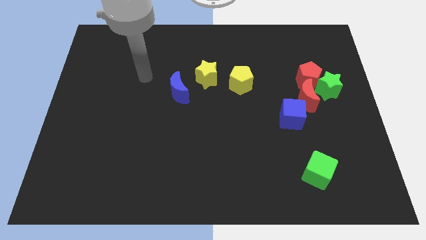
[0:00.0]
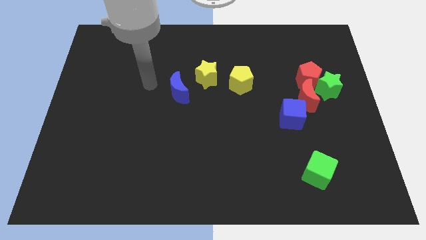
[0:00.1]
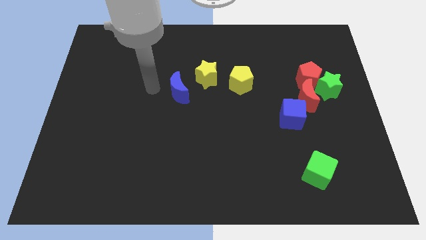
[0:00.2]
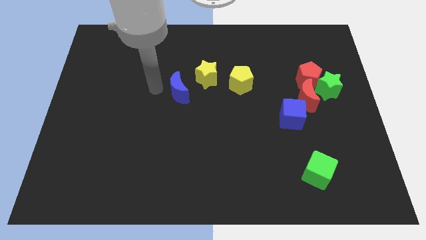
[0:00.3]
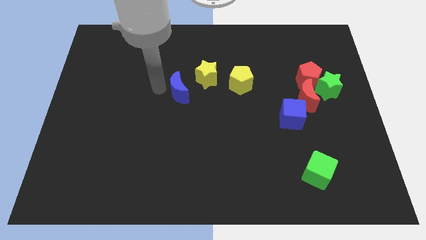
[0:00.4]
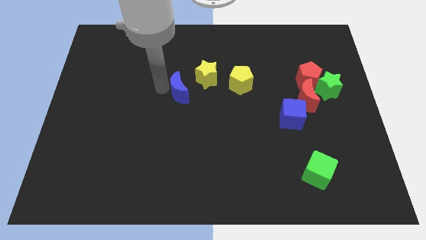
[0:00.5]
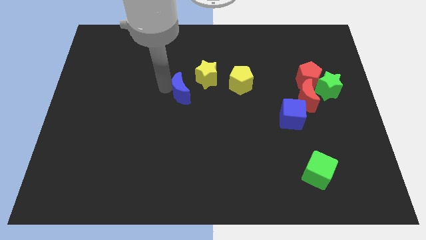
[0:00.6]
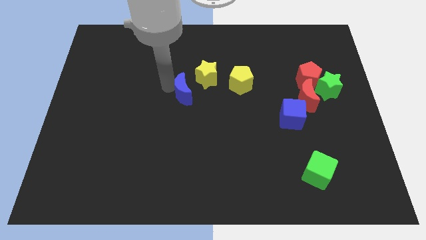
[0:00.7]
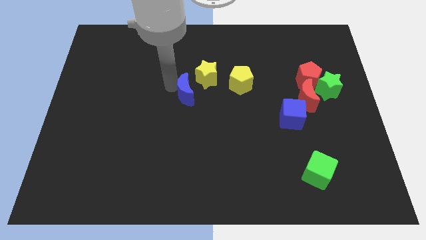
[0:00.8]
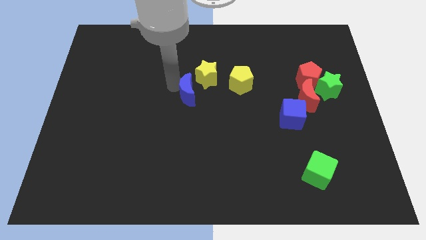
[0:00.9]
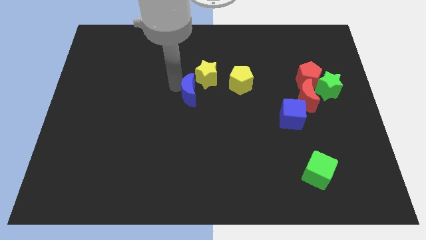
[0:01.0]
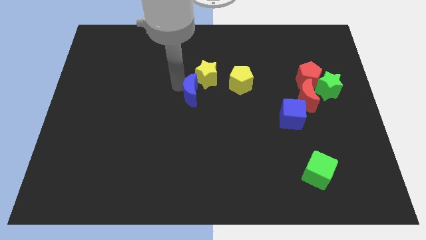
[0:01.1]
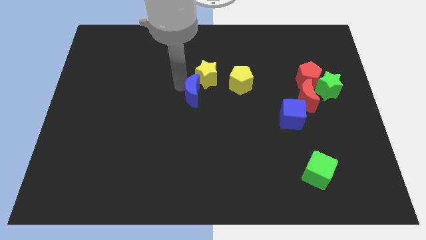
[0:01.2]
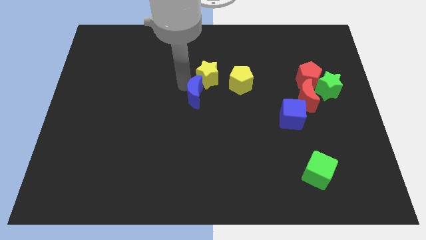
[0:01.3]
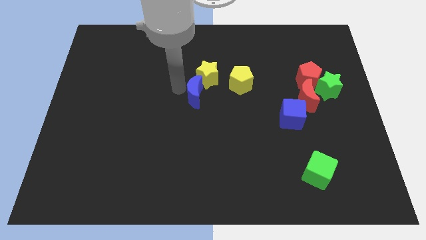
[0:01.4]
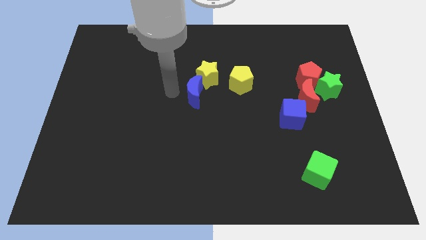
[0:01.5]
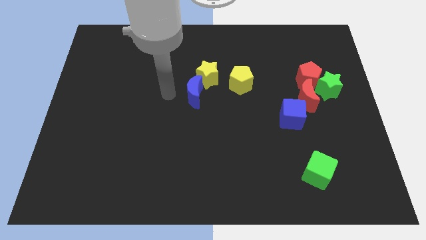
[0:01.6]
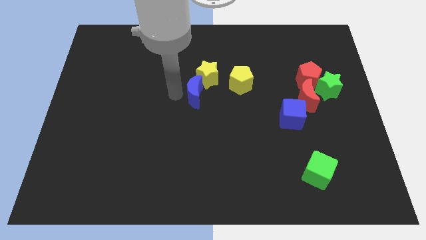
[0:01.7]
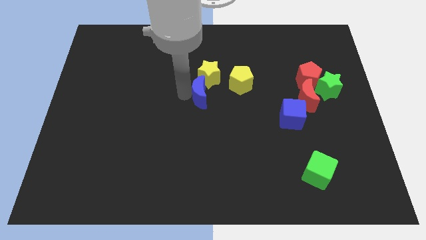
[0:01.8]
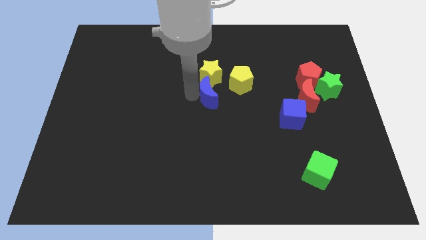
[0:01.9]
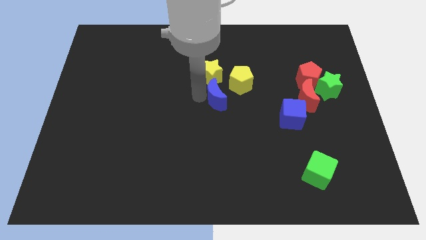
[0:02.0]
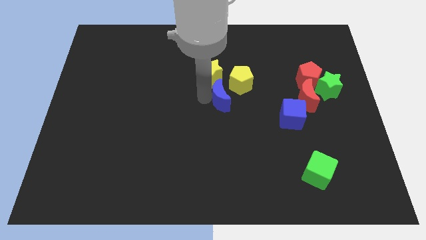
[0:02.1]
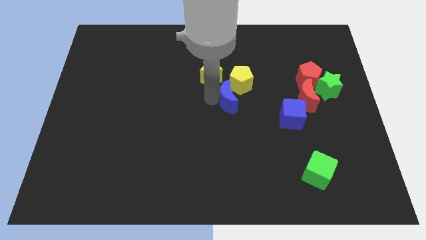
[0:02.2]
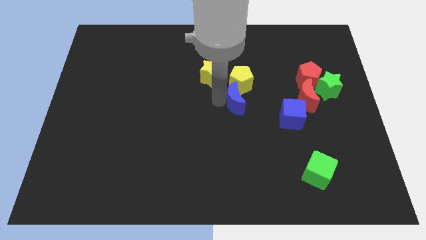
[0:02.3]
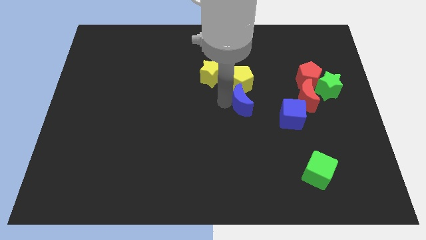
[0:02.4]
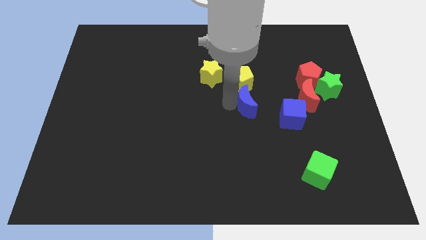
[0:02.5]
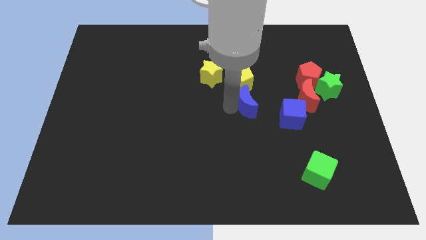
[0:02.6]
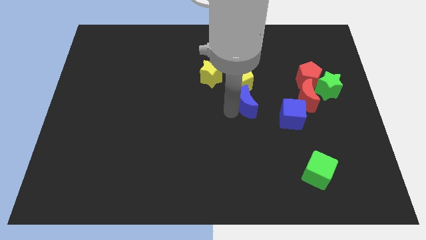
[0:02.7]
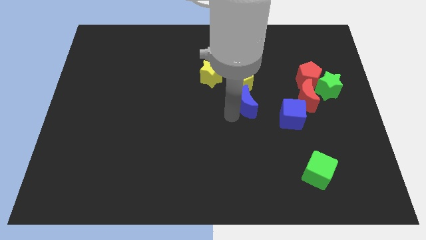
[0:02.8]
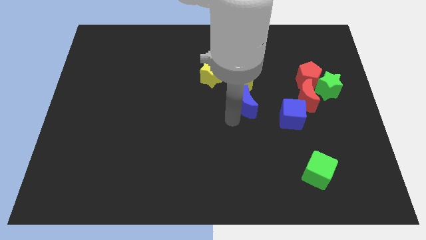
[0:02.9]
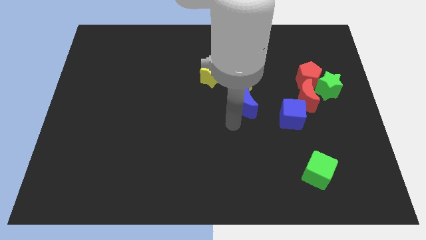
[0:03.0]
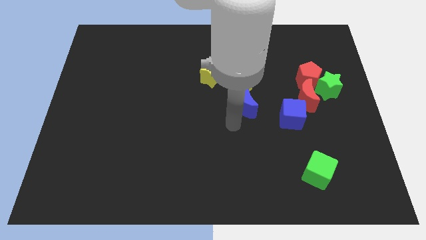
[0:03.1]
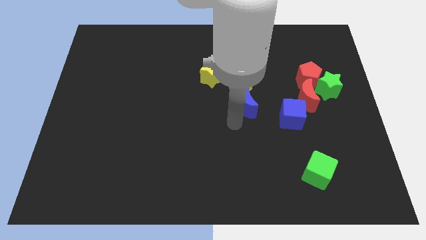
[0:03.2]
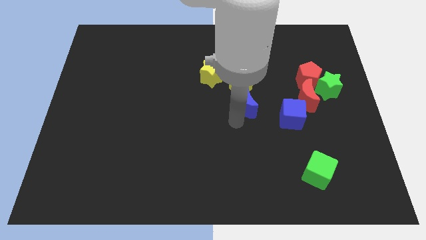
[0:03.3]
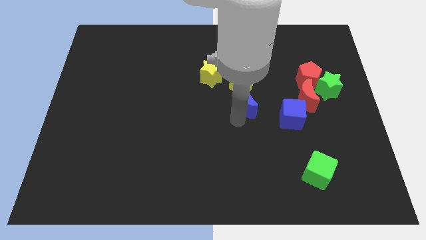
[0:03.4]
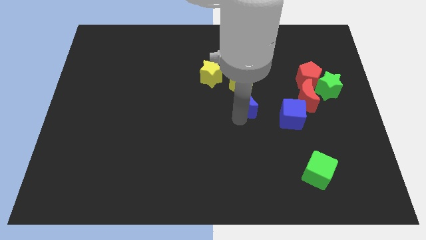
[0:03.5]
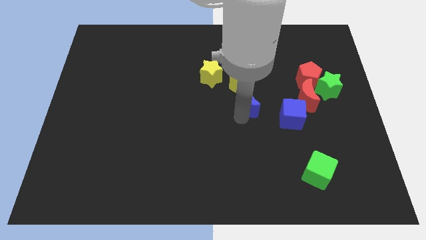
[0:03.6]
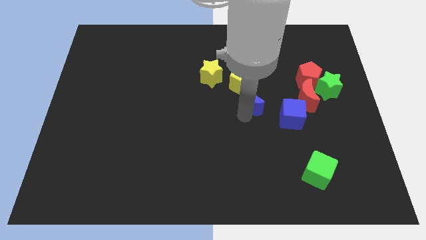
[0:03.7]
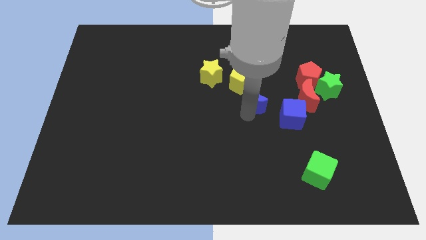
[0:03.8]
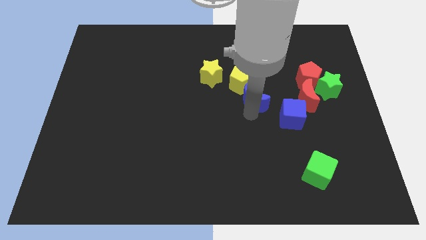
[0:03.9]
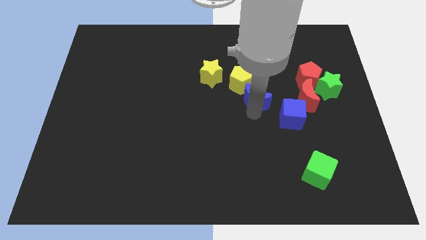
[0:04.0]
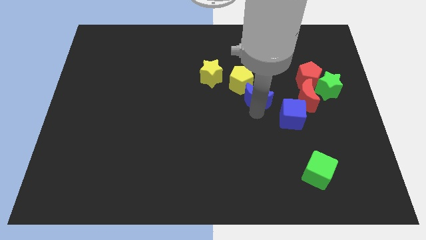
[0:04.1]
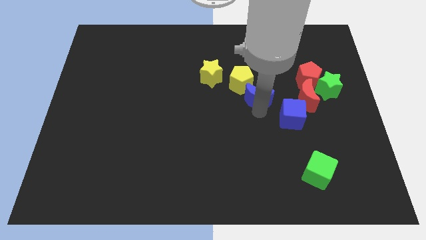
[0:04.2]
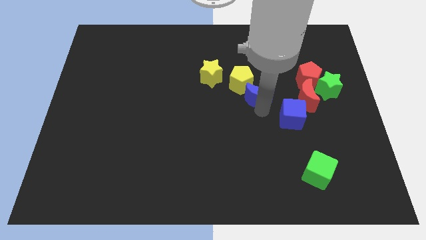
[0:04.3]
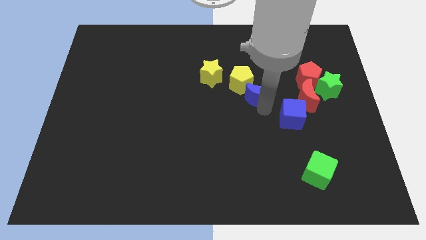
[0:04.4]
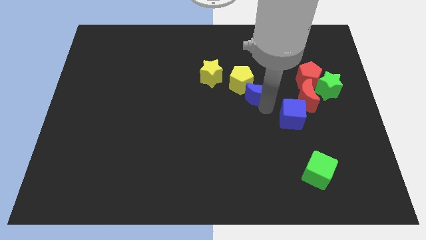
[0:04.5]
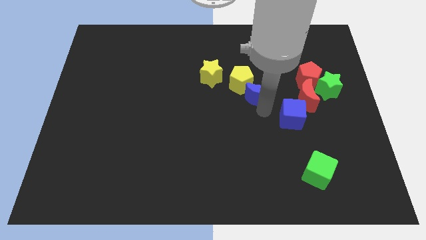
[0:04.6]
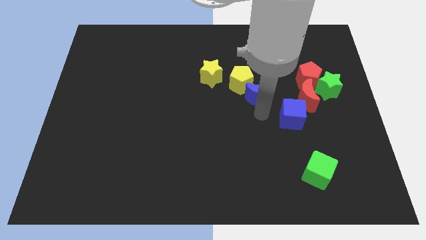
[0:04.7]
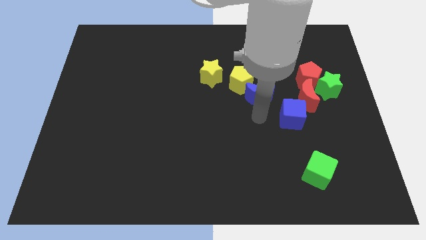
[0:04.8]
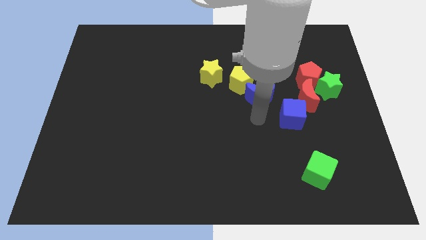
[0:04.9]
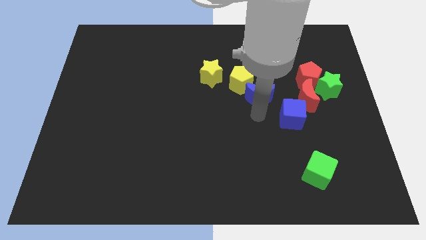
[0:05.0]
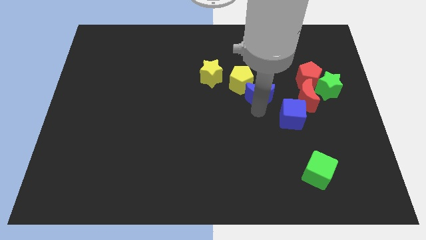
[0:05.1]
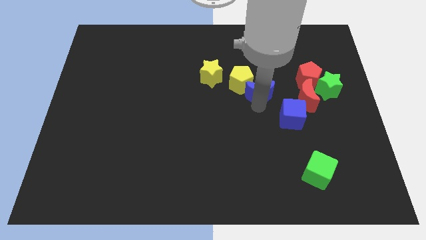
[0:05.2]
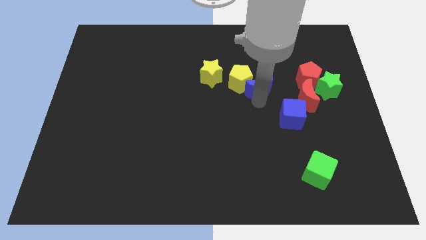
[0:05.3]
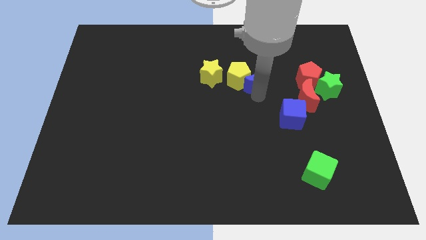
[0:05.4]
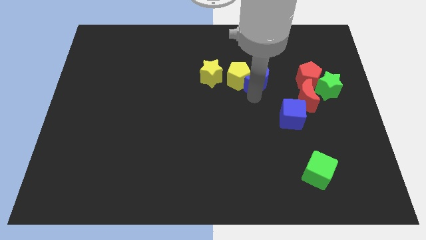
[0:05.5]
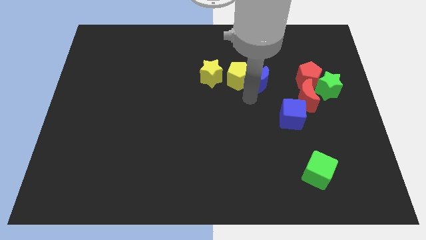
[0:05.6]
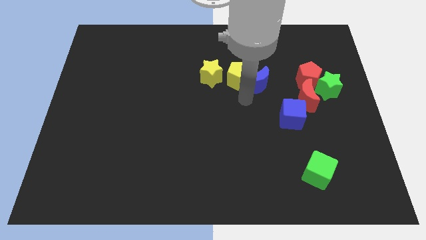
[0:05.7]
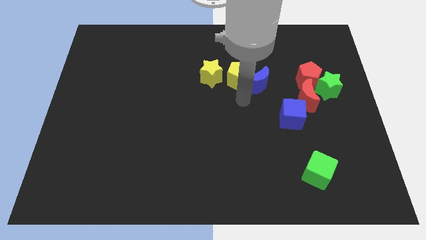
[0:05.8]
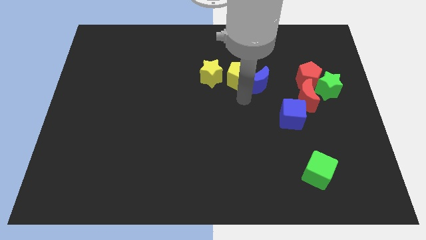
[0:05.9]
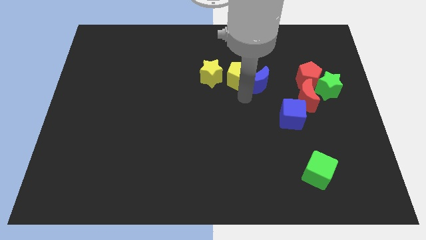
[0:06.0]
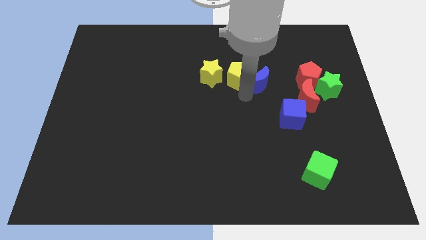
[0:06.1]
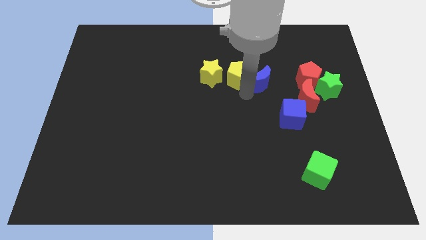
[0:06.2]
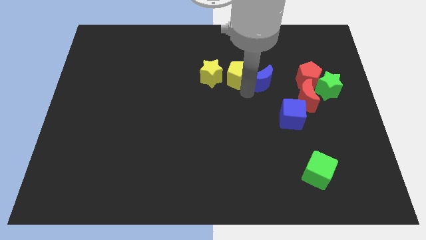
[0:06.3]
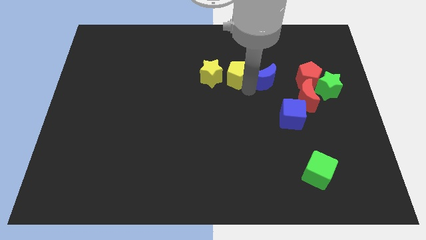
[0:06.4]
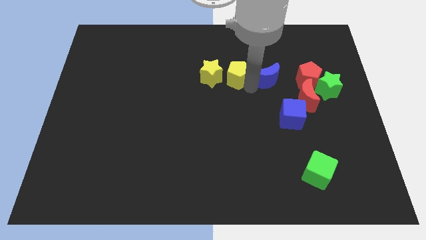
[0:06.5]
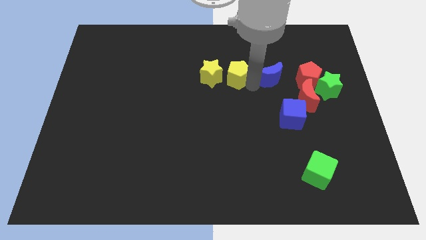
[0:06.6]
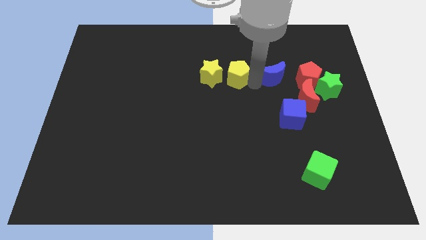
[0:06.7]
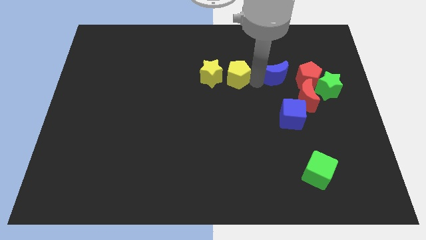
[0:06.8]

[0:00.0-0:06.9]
slide the blue moon diagonally up and to the left of the red pentagon
